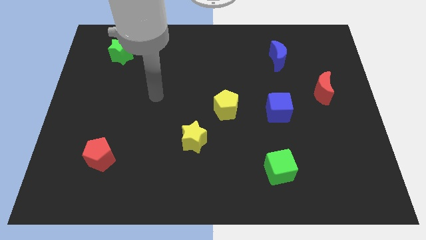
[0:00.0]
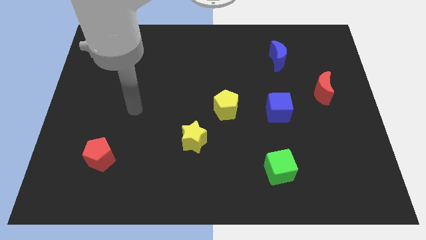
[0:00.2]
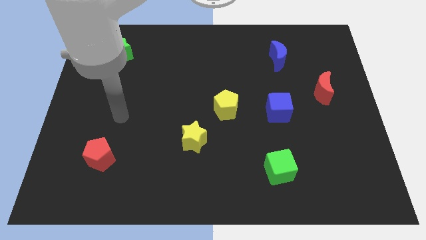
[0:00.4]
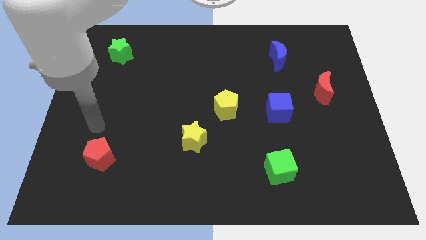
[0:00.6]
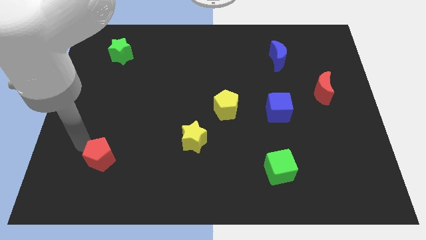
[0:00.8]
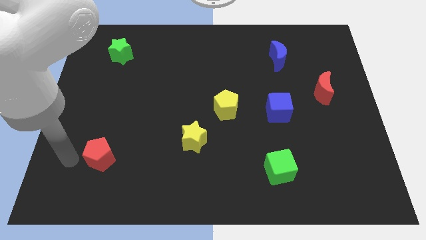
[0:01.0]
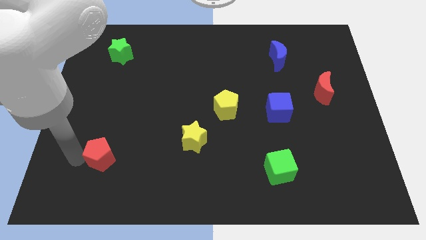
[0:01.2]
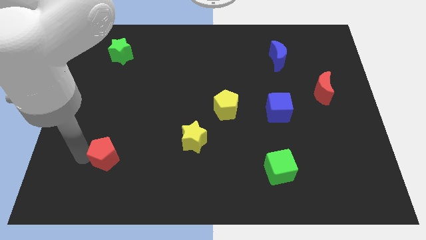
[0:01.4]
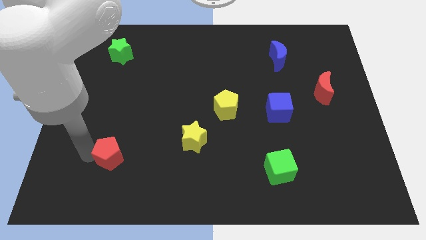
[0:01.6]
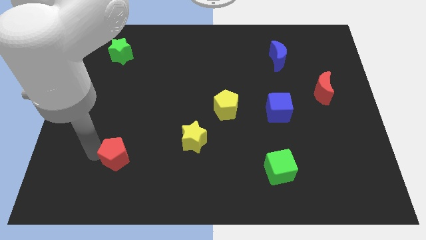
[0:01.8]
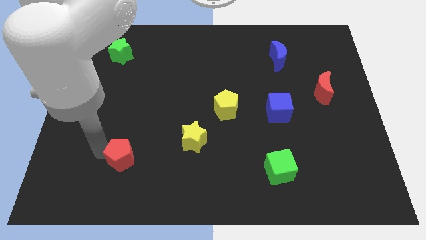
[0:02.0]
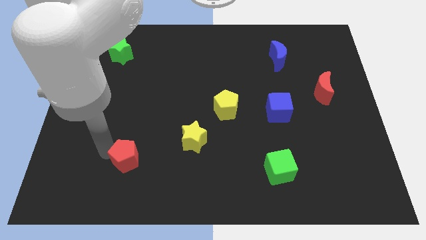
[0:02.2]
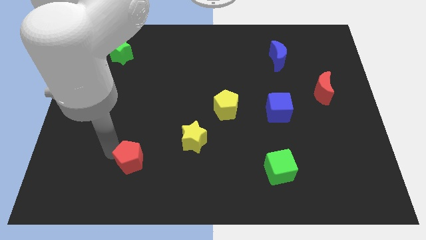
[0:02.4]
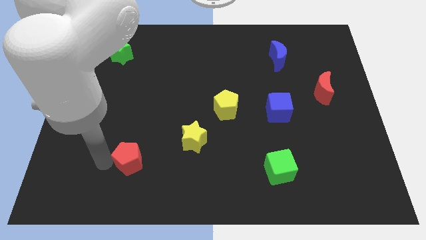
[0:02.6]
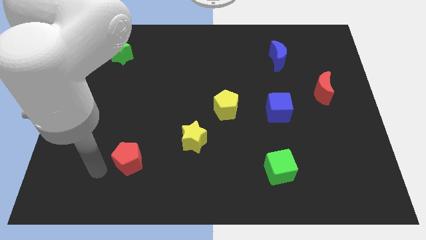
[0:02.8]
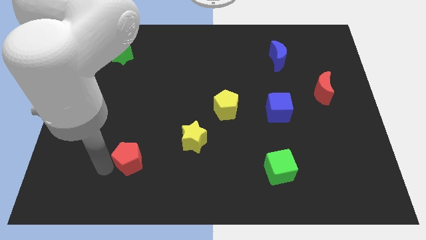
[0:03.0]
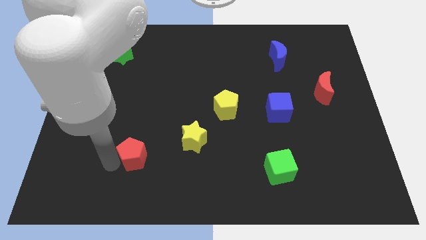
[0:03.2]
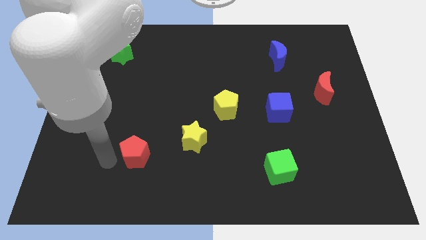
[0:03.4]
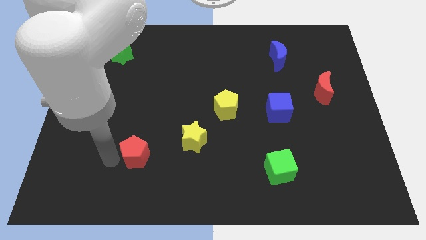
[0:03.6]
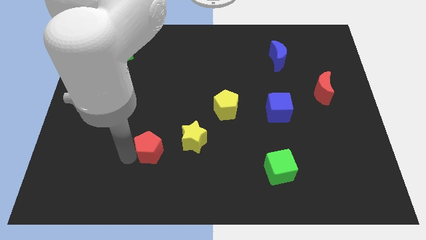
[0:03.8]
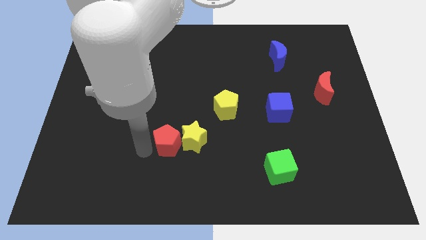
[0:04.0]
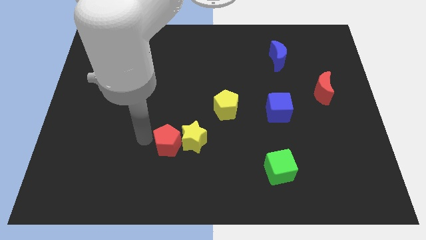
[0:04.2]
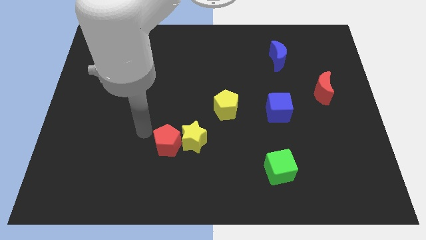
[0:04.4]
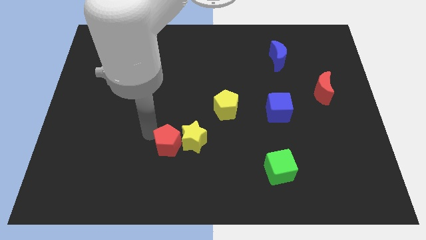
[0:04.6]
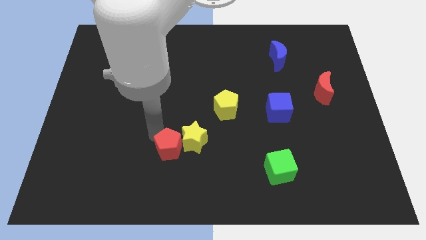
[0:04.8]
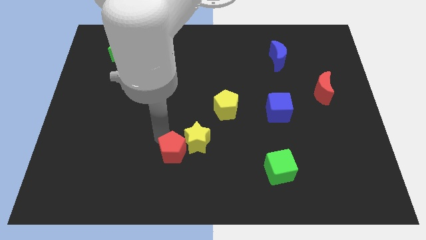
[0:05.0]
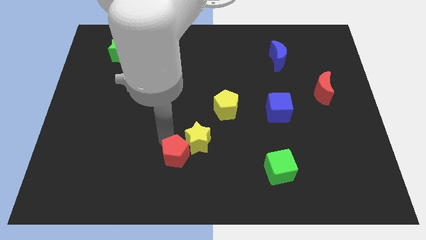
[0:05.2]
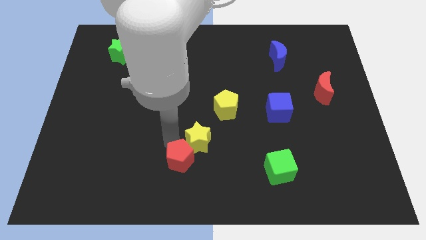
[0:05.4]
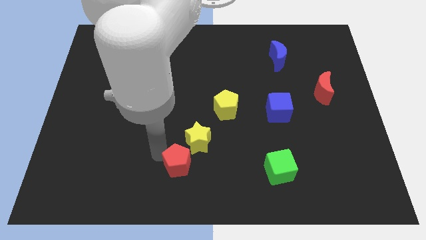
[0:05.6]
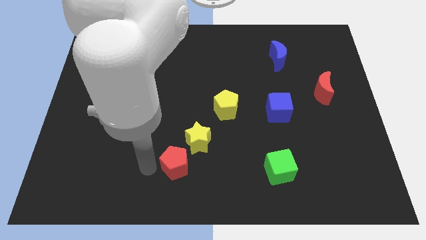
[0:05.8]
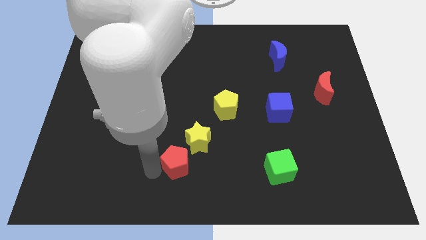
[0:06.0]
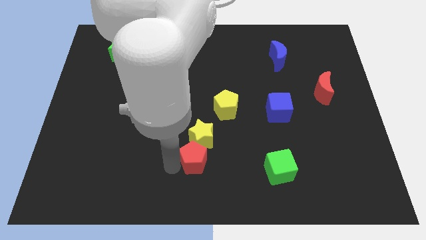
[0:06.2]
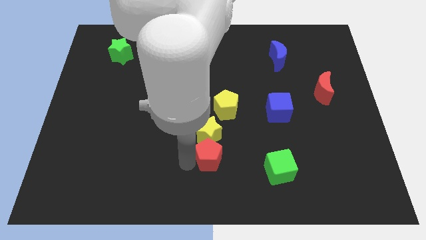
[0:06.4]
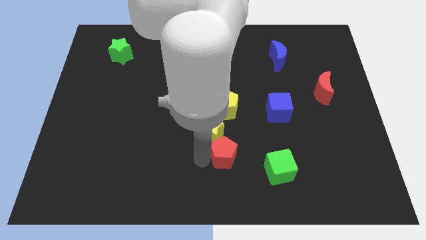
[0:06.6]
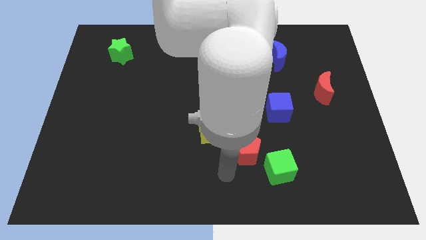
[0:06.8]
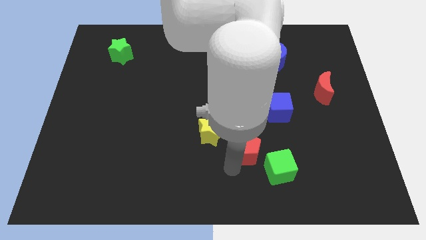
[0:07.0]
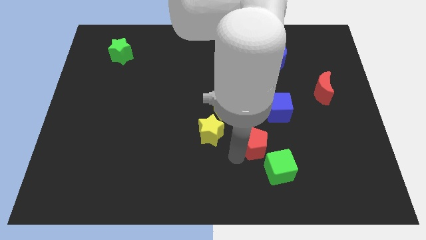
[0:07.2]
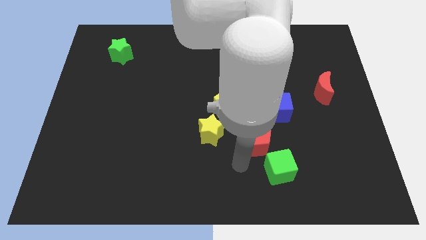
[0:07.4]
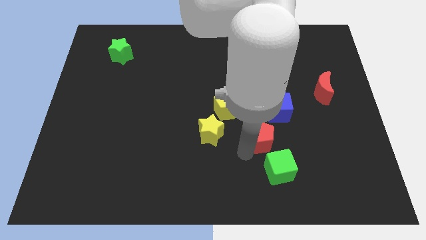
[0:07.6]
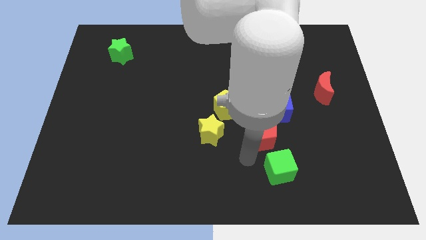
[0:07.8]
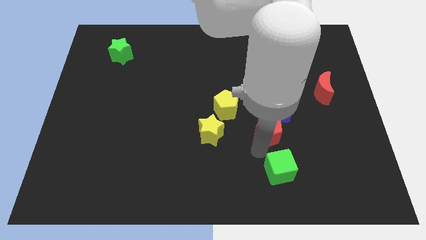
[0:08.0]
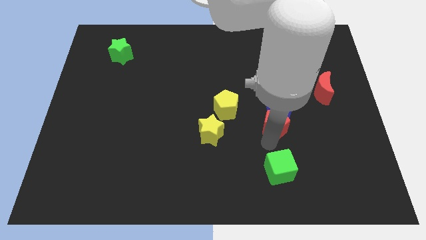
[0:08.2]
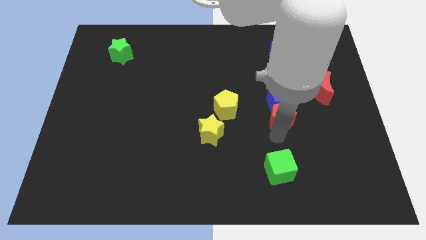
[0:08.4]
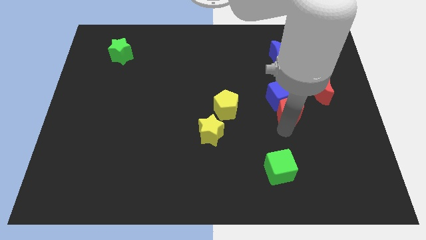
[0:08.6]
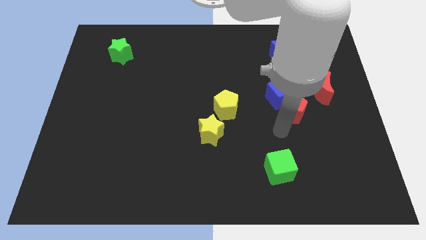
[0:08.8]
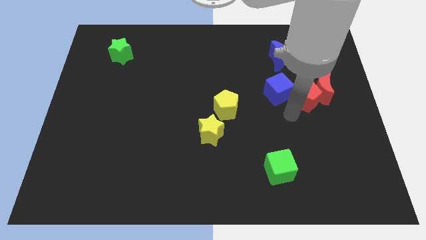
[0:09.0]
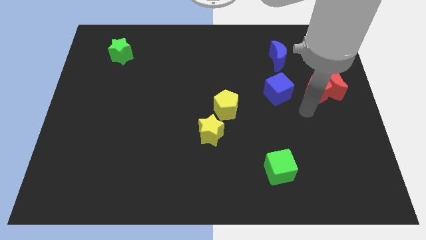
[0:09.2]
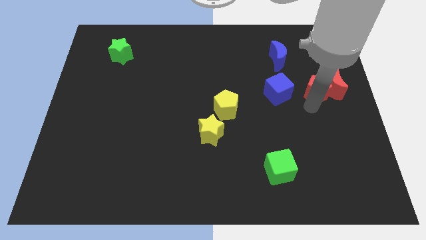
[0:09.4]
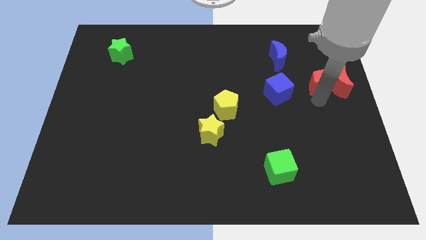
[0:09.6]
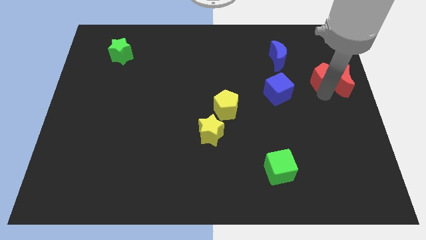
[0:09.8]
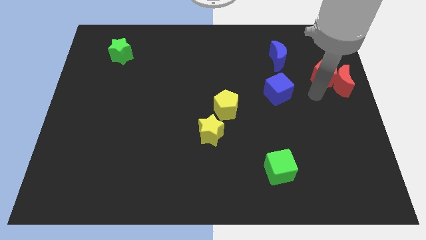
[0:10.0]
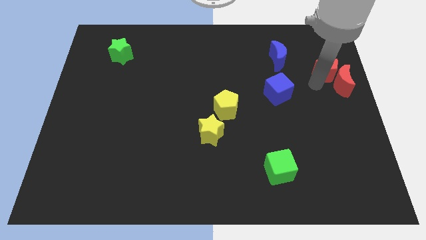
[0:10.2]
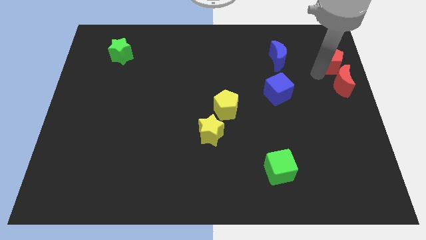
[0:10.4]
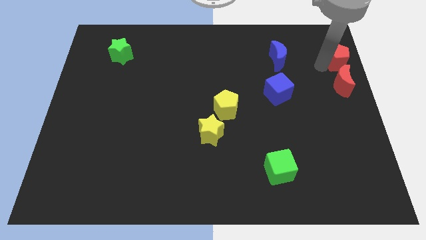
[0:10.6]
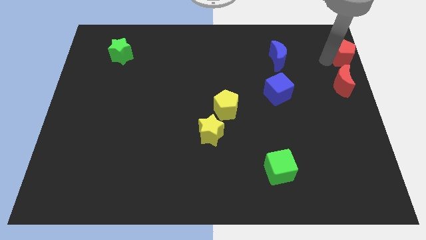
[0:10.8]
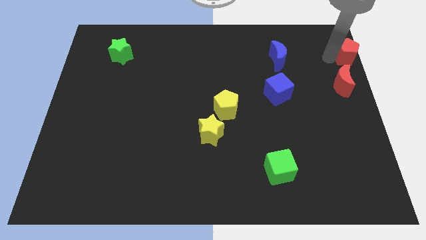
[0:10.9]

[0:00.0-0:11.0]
put the red pentagon to the top right of the board

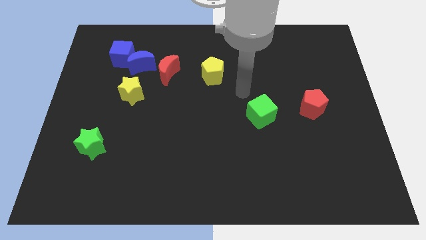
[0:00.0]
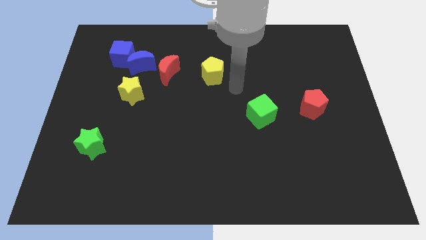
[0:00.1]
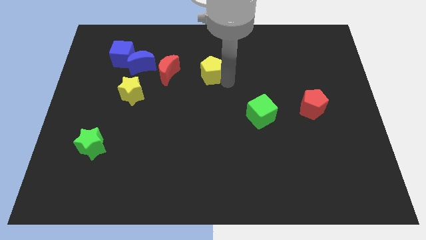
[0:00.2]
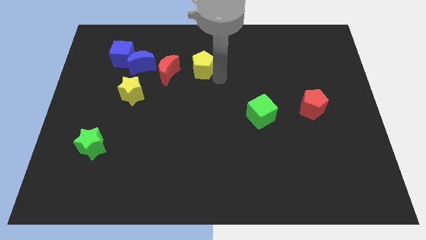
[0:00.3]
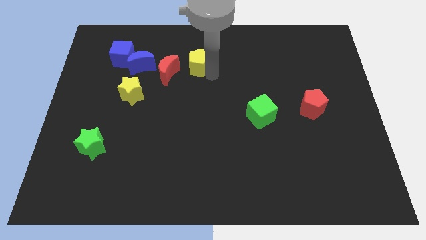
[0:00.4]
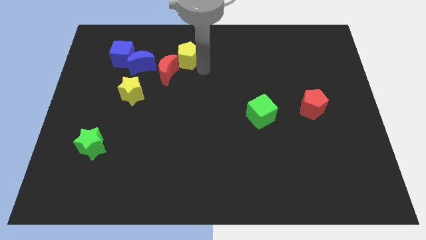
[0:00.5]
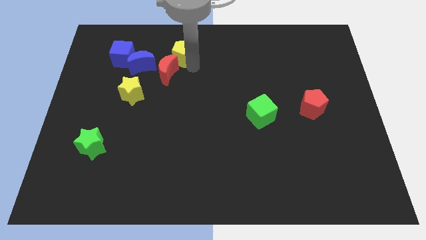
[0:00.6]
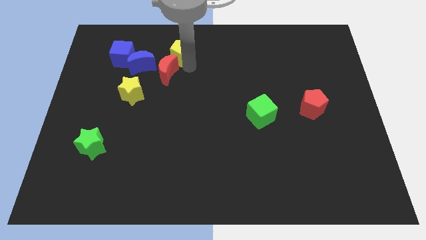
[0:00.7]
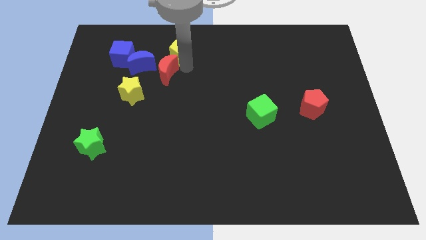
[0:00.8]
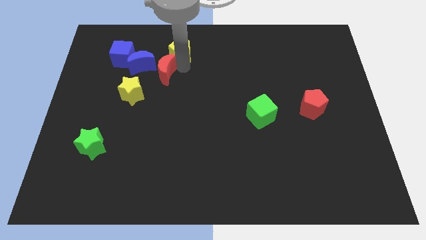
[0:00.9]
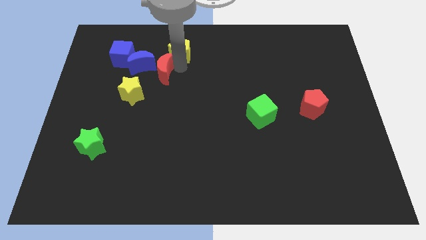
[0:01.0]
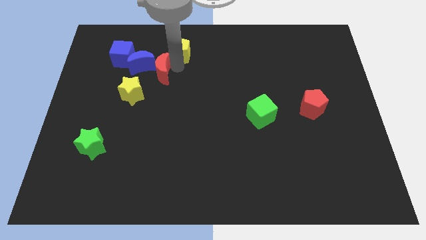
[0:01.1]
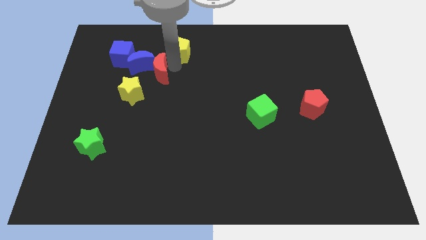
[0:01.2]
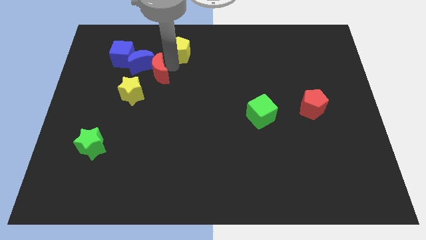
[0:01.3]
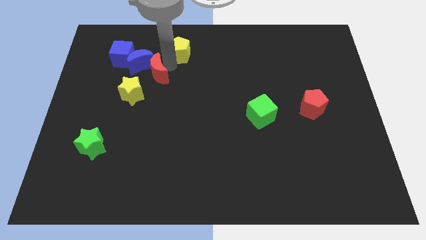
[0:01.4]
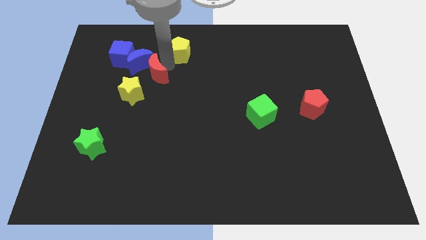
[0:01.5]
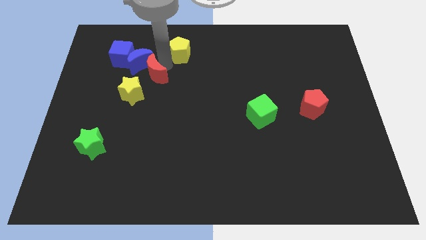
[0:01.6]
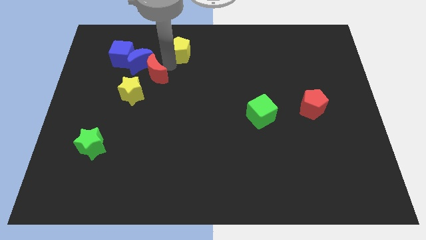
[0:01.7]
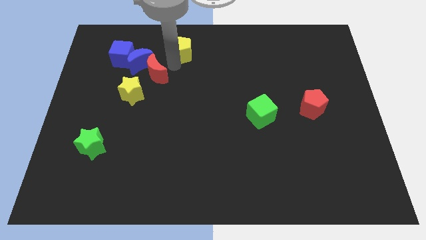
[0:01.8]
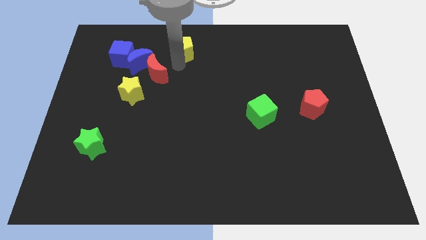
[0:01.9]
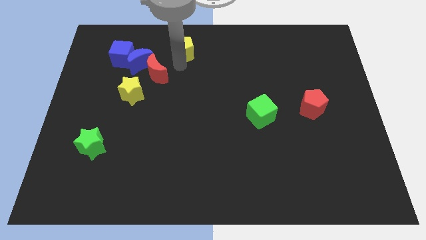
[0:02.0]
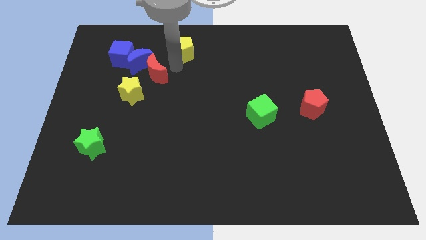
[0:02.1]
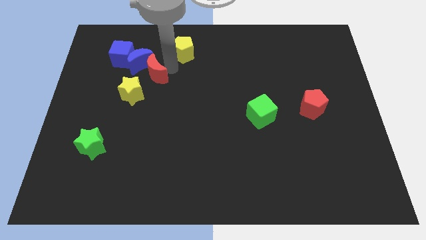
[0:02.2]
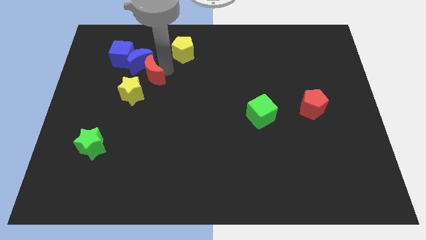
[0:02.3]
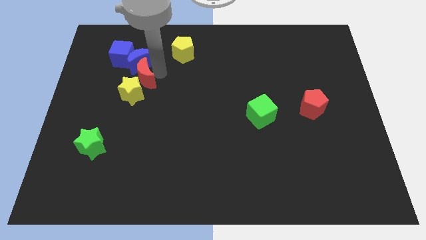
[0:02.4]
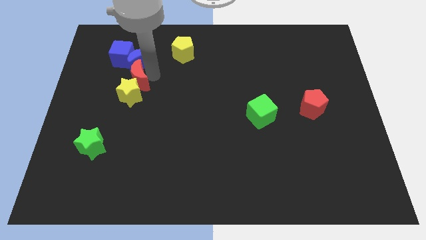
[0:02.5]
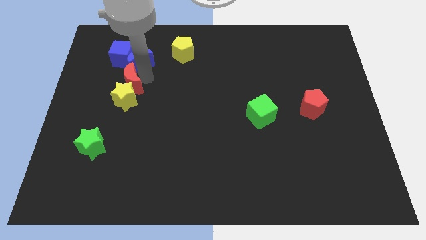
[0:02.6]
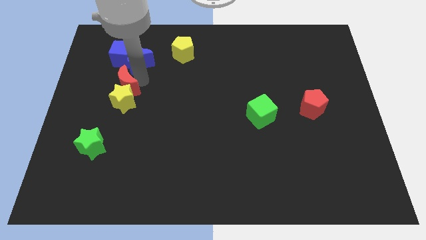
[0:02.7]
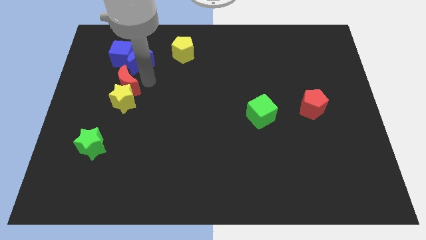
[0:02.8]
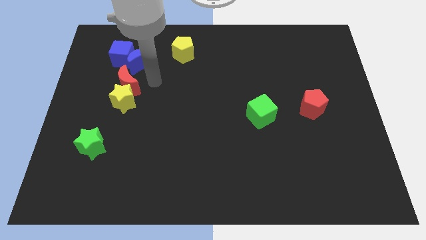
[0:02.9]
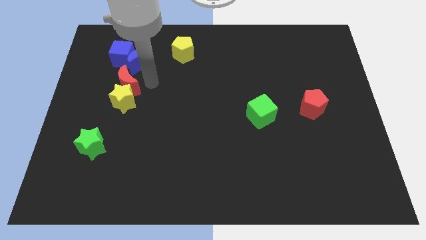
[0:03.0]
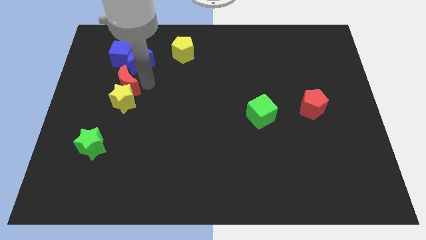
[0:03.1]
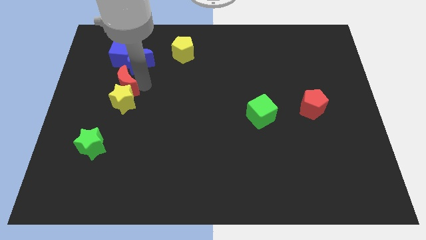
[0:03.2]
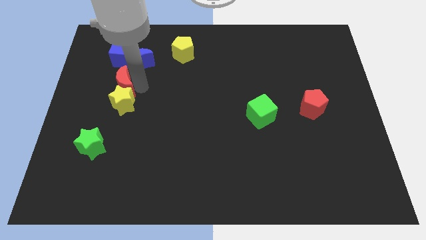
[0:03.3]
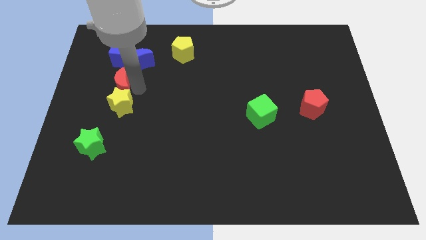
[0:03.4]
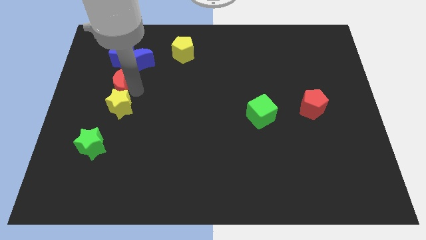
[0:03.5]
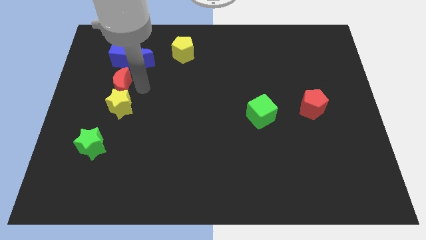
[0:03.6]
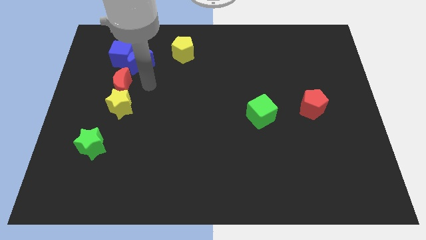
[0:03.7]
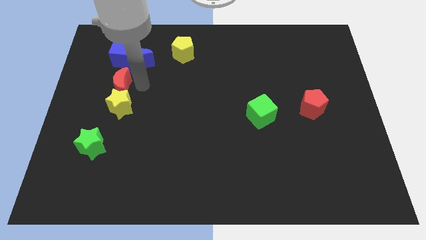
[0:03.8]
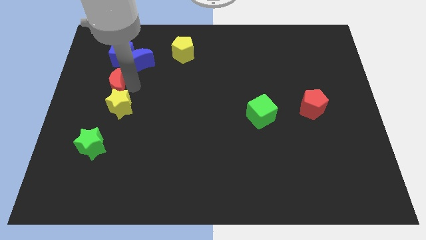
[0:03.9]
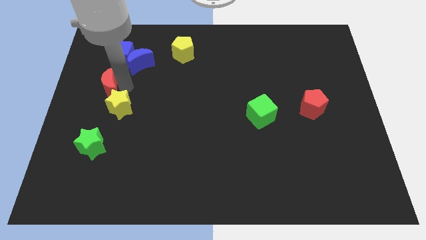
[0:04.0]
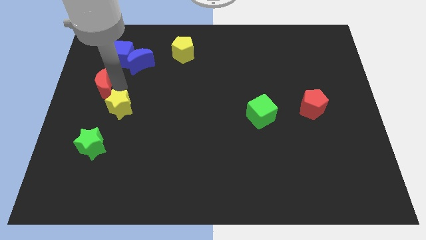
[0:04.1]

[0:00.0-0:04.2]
slide the red moon to the left side of the board
